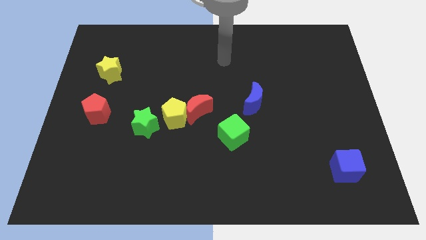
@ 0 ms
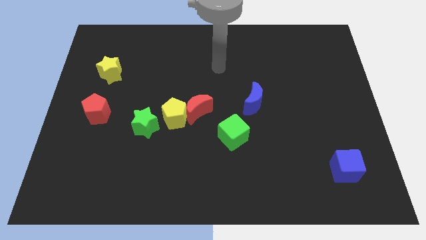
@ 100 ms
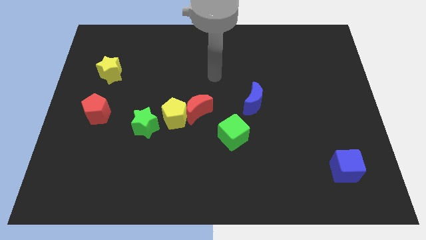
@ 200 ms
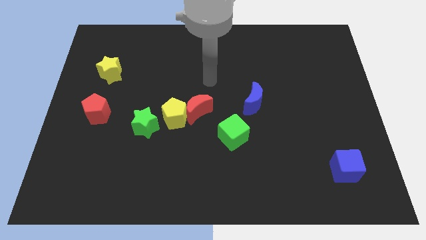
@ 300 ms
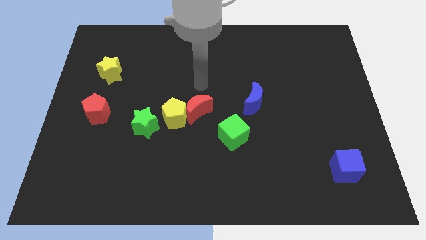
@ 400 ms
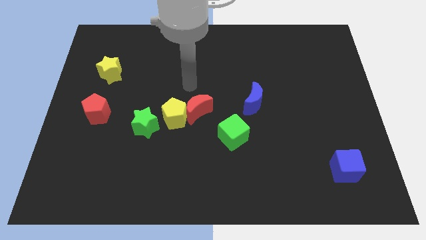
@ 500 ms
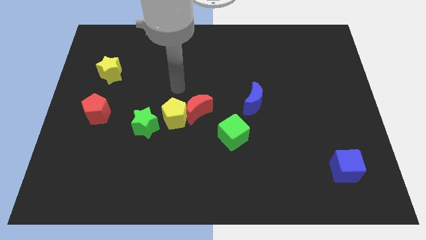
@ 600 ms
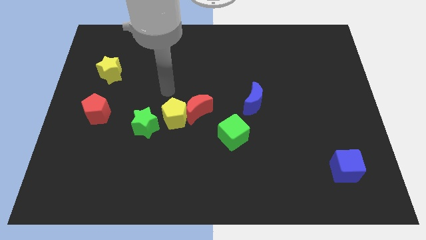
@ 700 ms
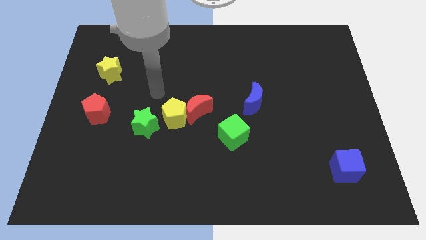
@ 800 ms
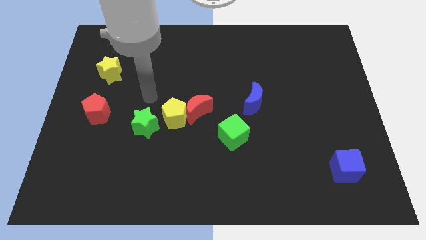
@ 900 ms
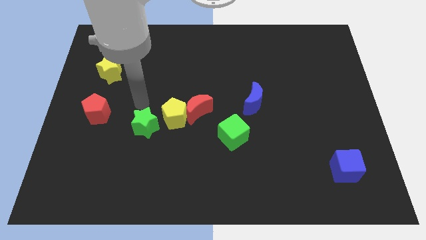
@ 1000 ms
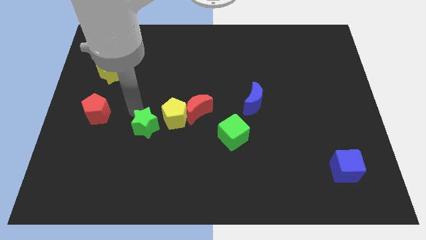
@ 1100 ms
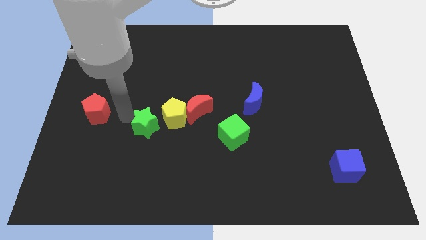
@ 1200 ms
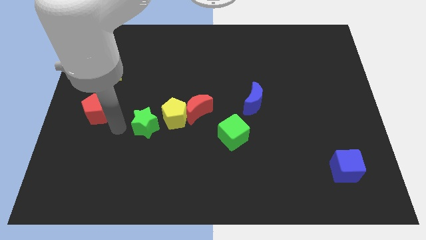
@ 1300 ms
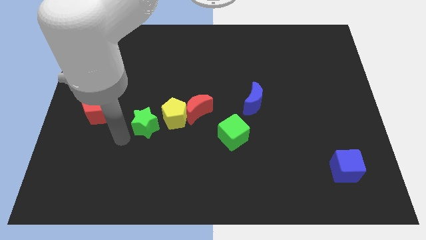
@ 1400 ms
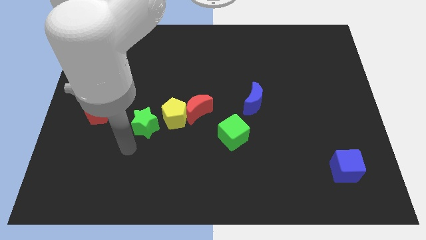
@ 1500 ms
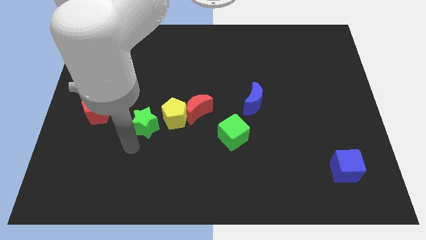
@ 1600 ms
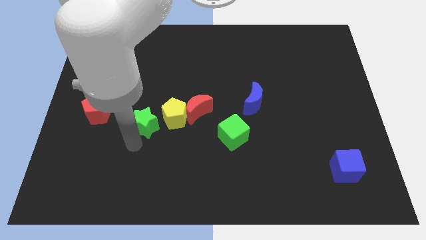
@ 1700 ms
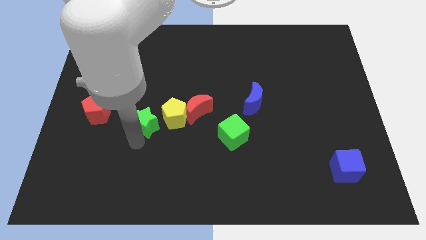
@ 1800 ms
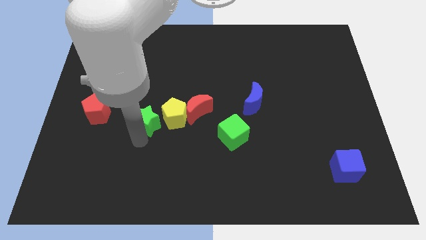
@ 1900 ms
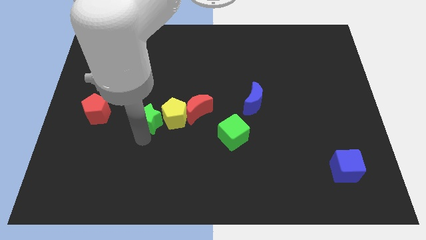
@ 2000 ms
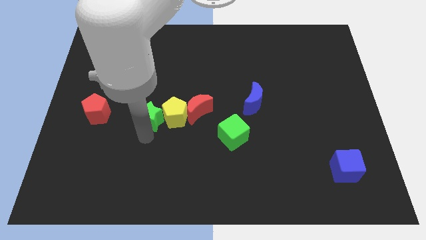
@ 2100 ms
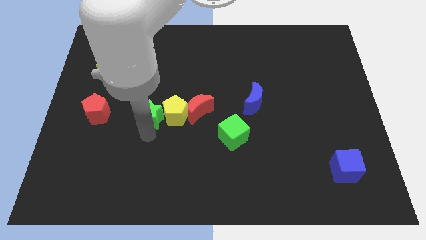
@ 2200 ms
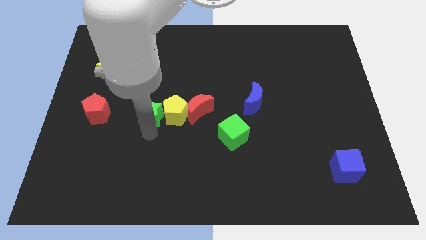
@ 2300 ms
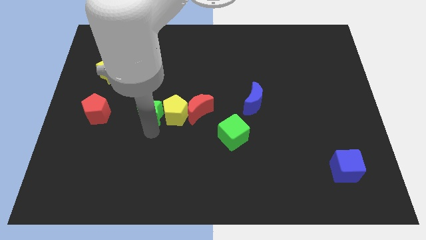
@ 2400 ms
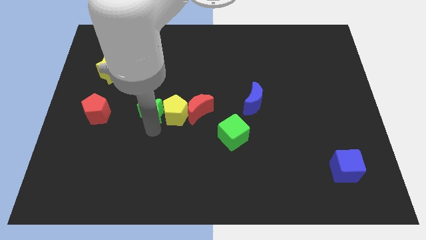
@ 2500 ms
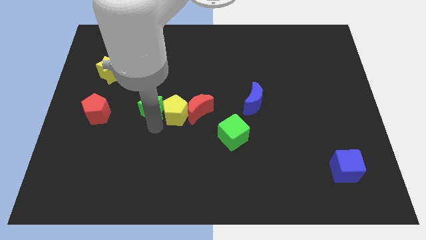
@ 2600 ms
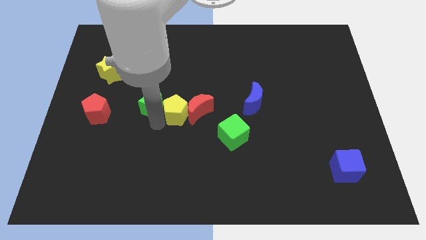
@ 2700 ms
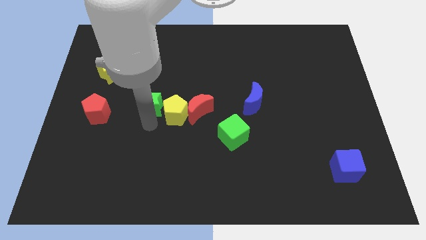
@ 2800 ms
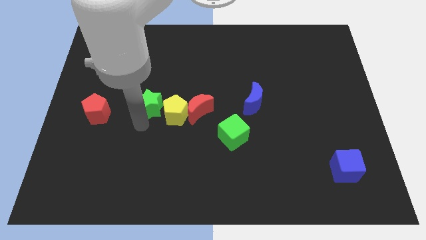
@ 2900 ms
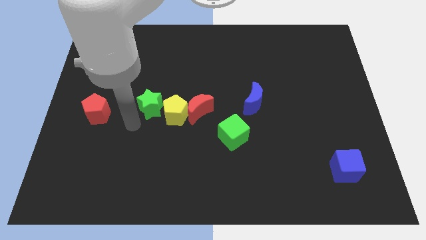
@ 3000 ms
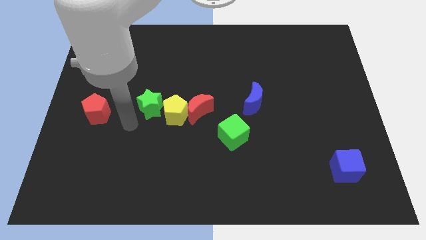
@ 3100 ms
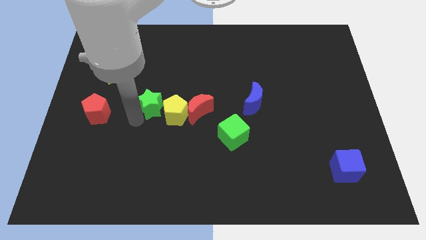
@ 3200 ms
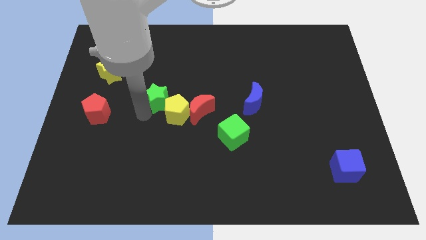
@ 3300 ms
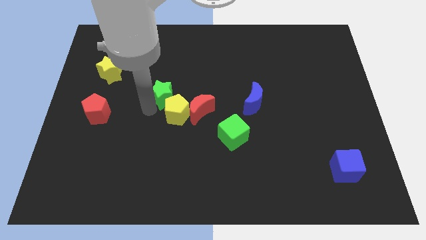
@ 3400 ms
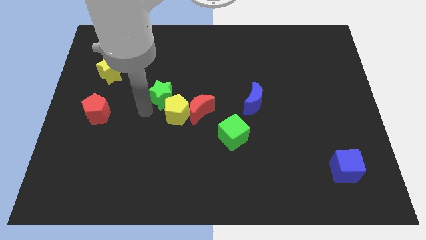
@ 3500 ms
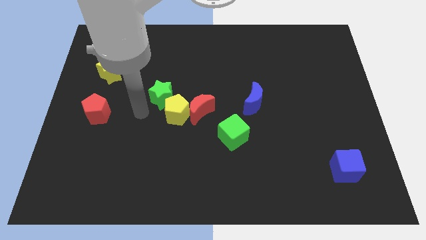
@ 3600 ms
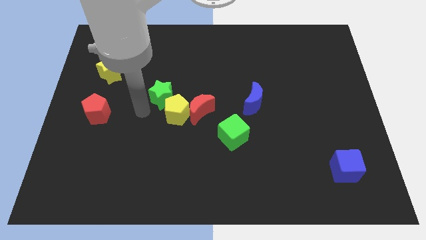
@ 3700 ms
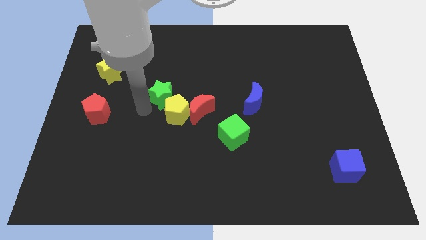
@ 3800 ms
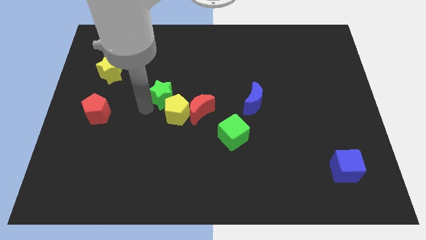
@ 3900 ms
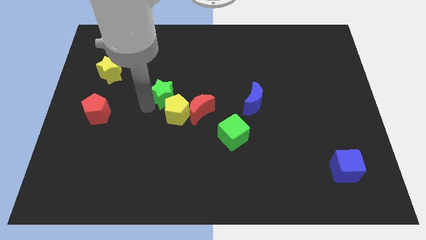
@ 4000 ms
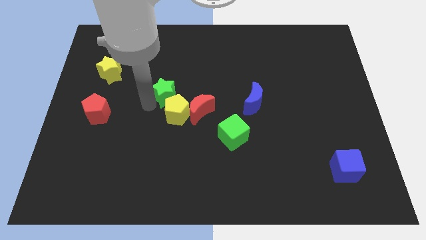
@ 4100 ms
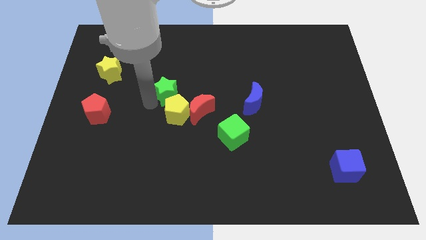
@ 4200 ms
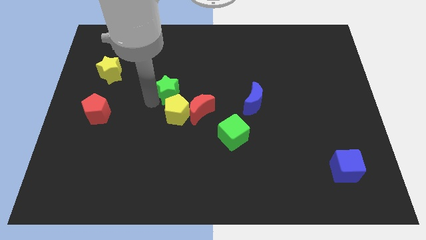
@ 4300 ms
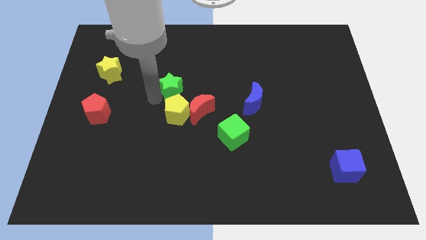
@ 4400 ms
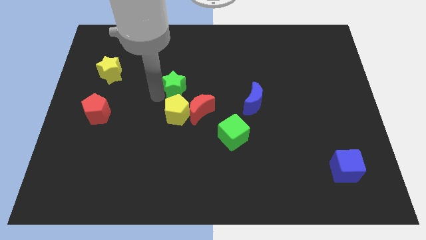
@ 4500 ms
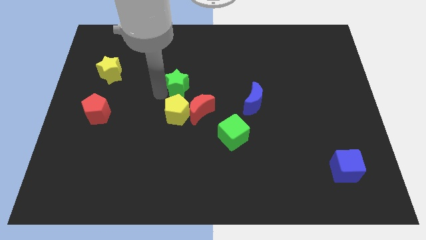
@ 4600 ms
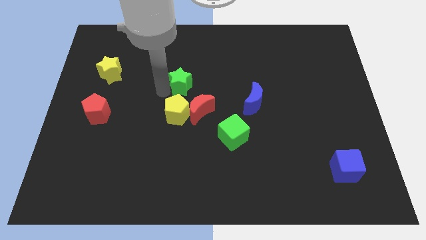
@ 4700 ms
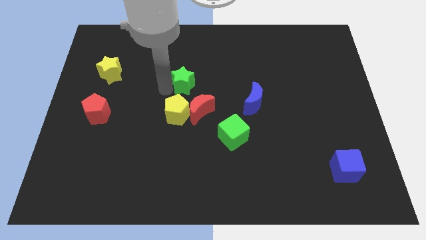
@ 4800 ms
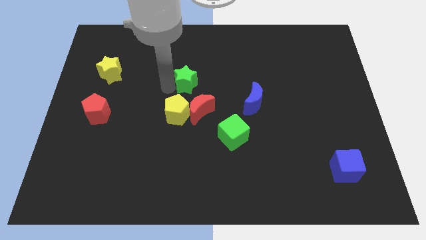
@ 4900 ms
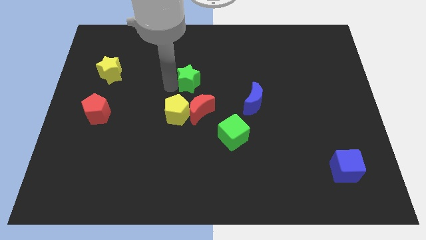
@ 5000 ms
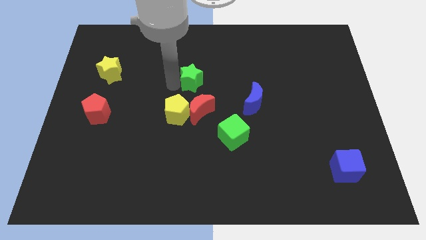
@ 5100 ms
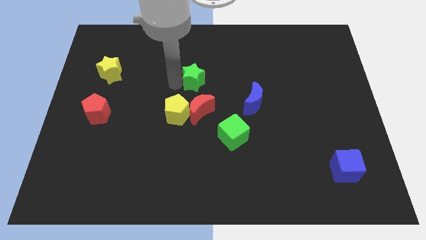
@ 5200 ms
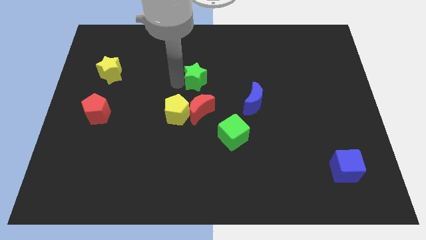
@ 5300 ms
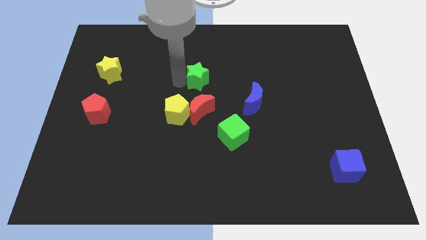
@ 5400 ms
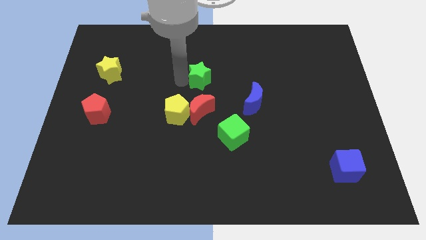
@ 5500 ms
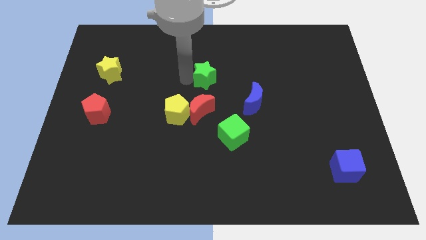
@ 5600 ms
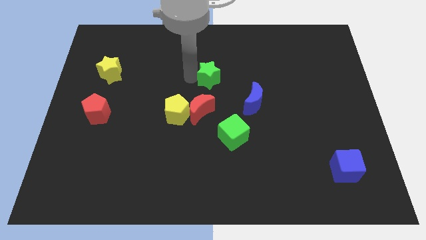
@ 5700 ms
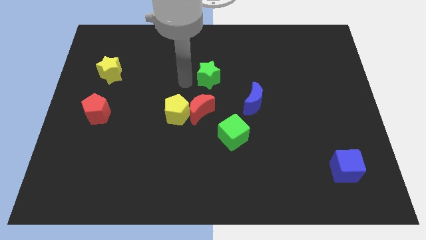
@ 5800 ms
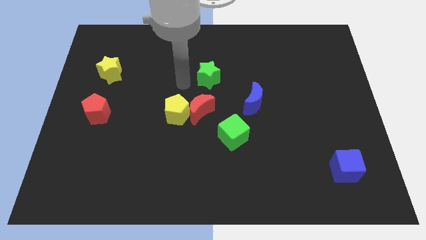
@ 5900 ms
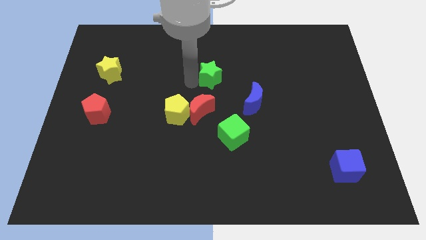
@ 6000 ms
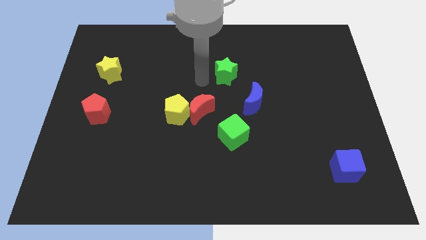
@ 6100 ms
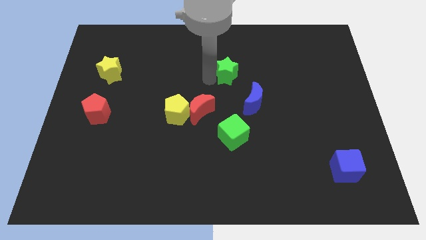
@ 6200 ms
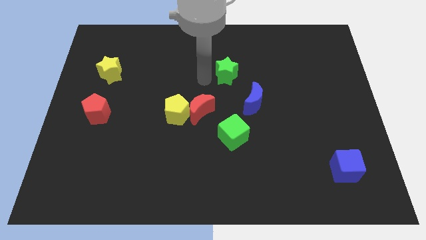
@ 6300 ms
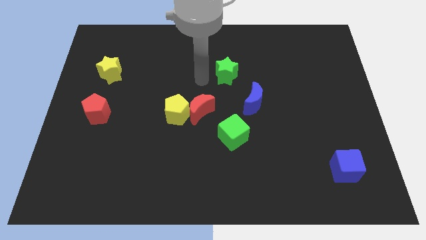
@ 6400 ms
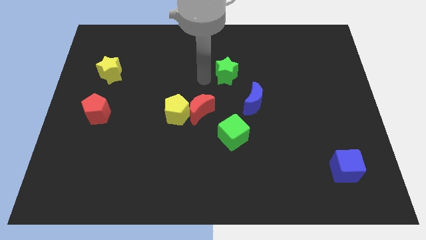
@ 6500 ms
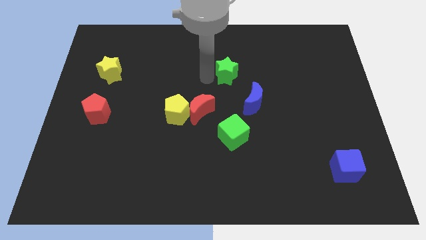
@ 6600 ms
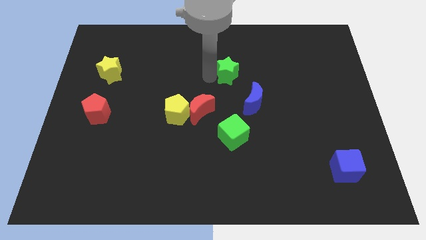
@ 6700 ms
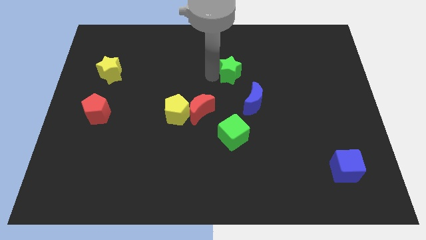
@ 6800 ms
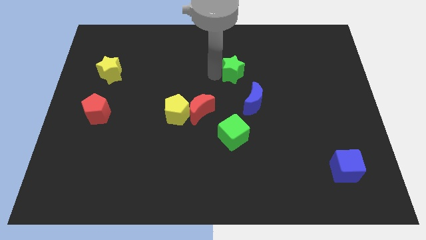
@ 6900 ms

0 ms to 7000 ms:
move the green star to the top side of the blue moon
